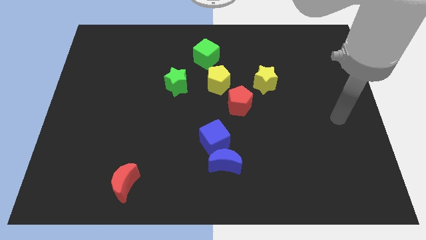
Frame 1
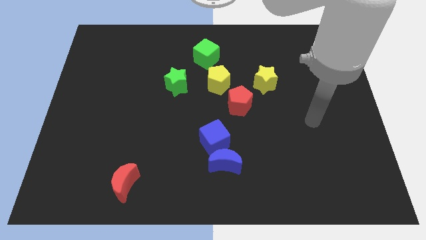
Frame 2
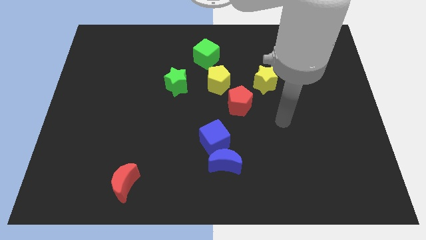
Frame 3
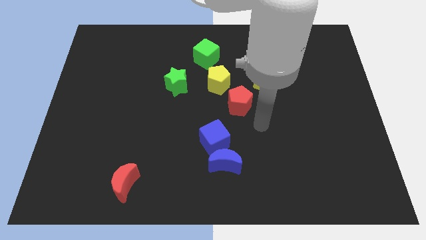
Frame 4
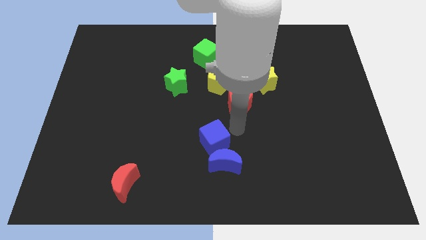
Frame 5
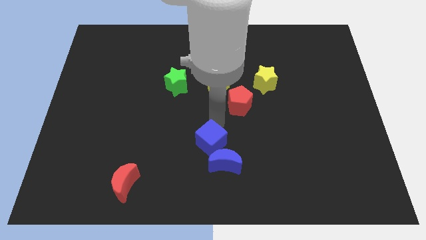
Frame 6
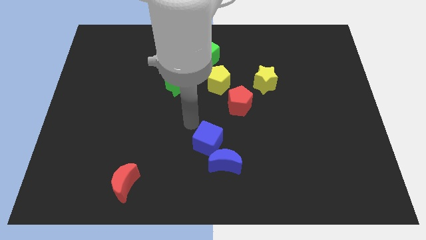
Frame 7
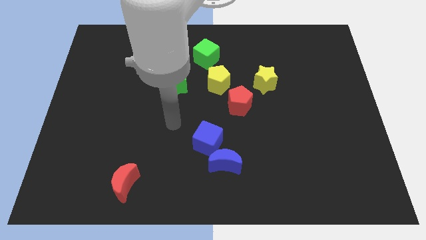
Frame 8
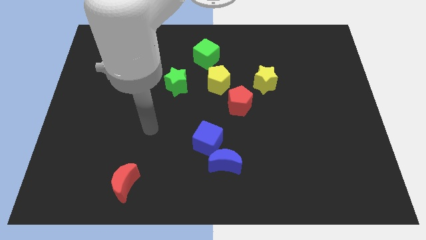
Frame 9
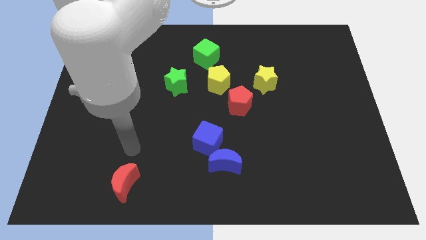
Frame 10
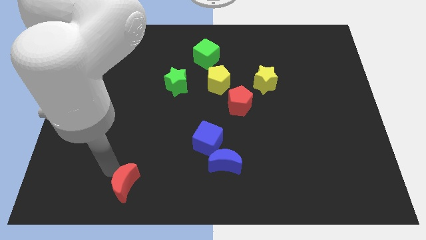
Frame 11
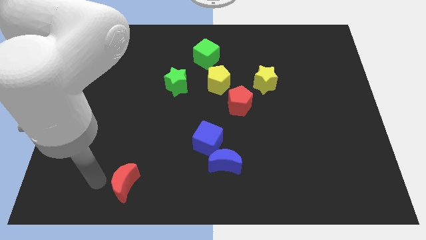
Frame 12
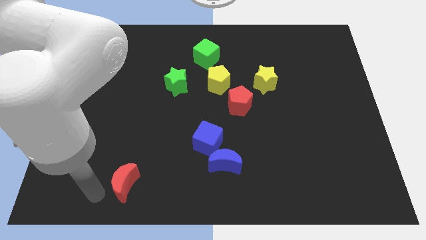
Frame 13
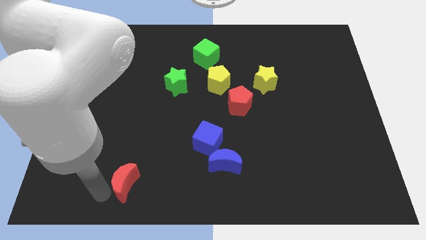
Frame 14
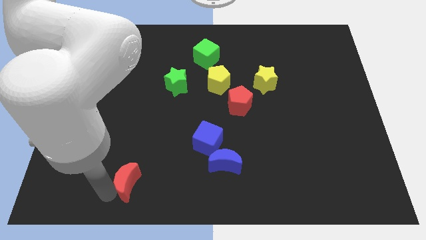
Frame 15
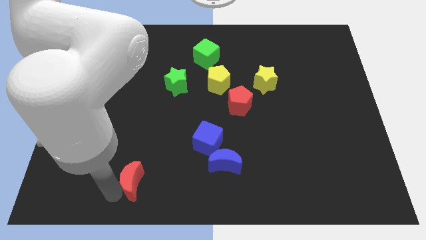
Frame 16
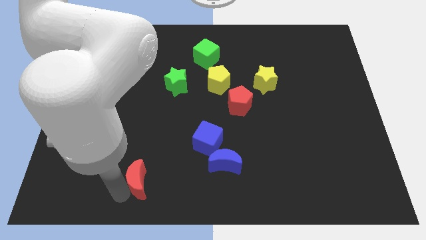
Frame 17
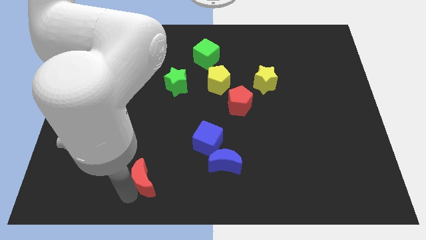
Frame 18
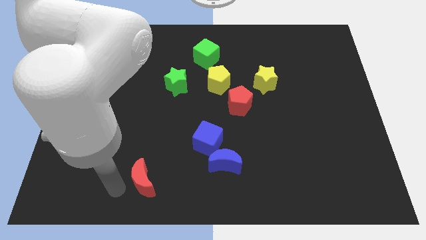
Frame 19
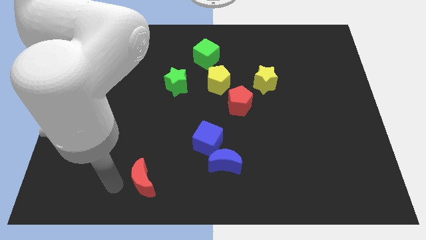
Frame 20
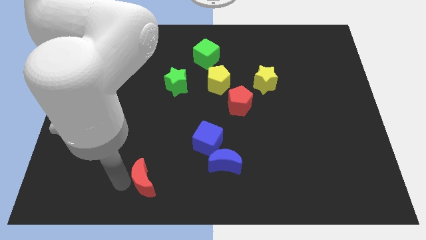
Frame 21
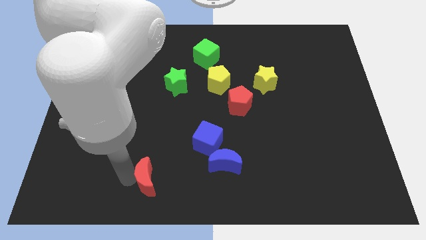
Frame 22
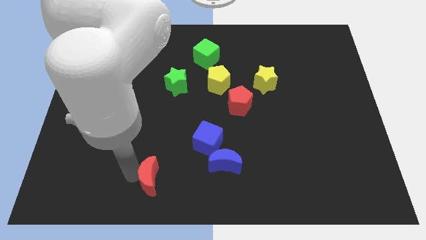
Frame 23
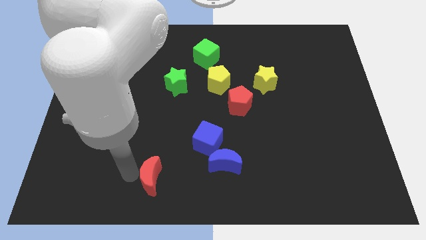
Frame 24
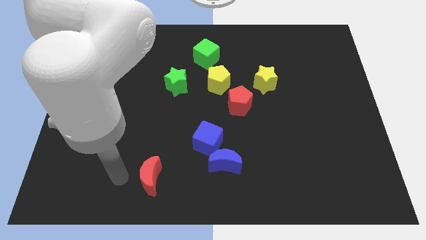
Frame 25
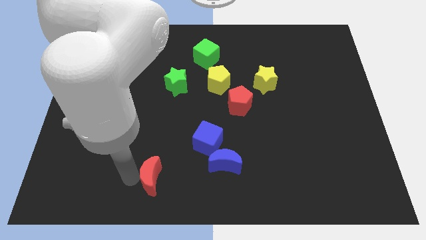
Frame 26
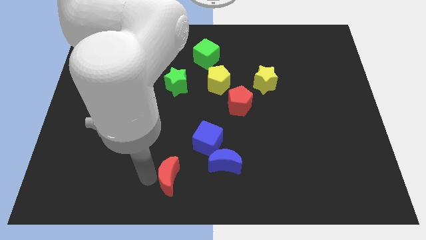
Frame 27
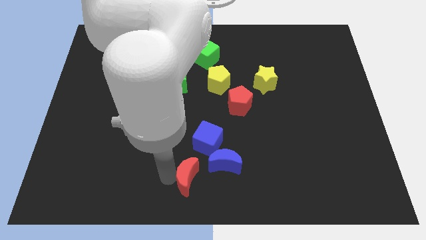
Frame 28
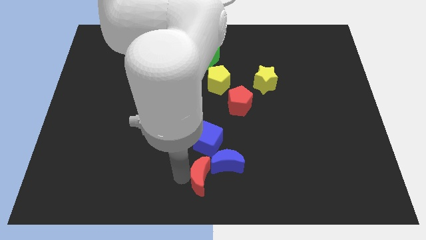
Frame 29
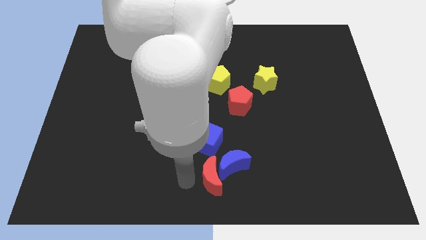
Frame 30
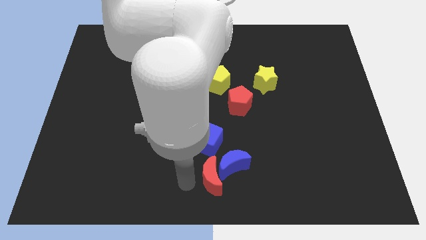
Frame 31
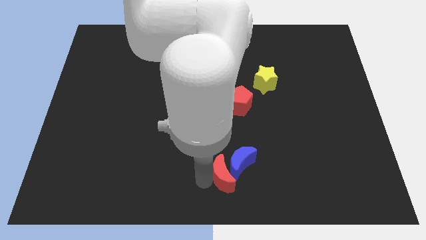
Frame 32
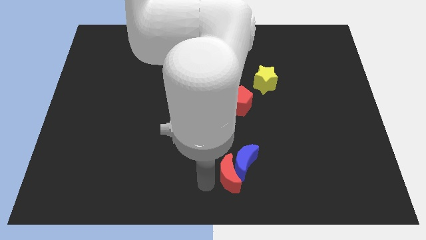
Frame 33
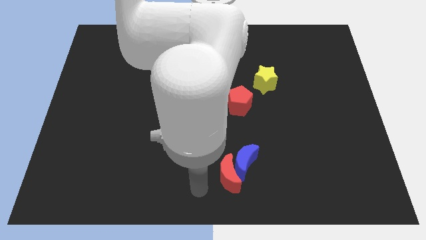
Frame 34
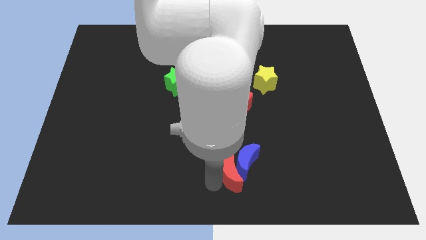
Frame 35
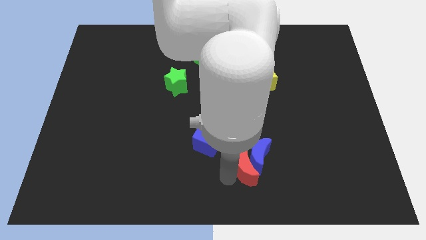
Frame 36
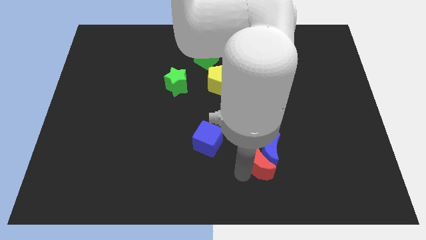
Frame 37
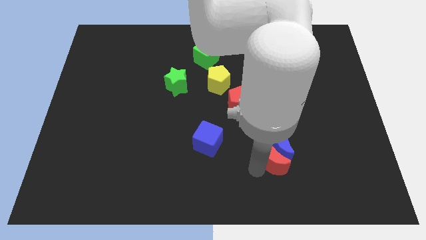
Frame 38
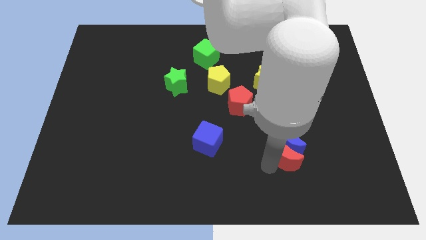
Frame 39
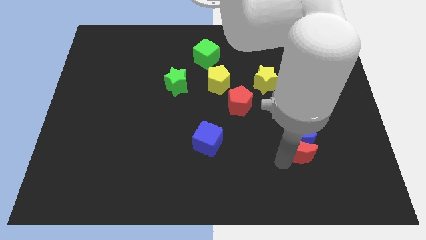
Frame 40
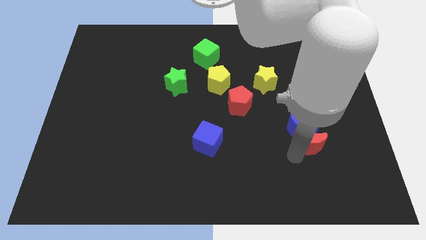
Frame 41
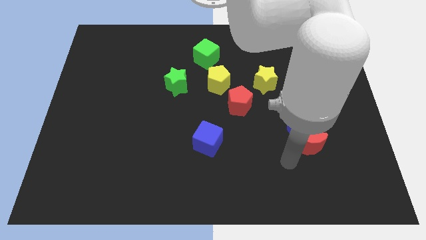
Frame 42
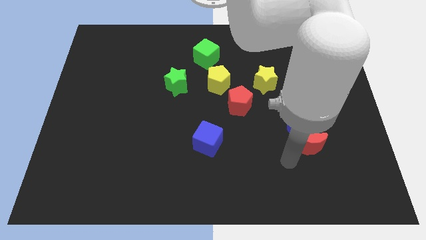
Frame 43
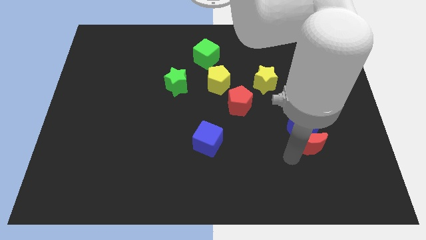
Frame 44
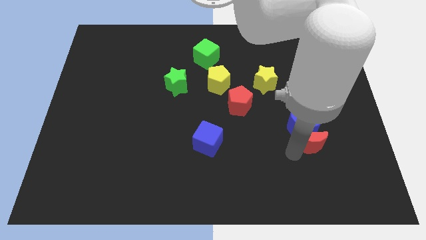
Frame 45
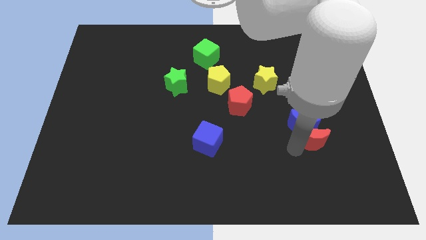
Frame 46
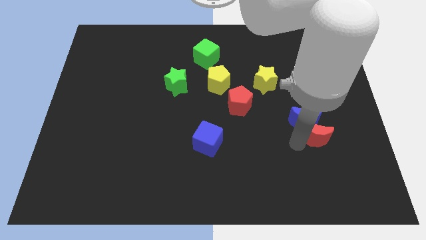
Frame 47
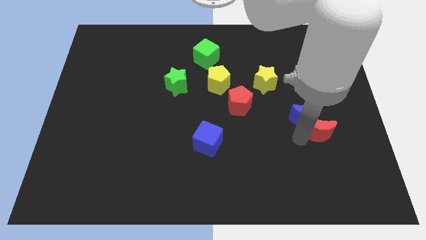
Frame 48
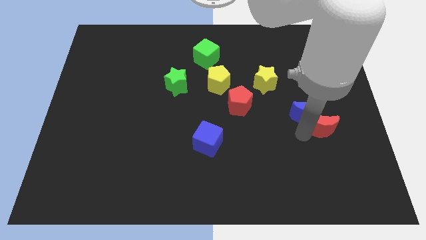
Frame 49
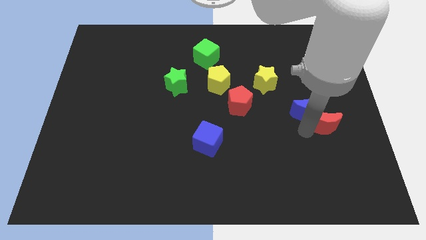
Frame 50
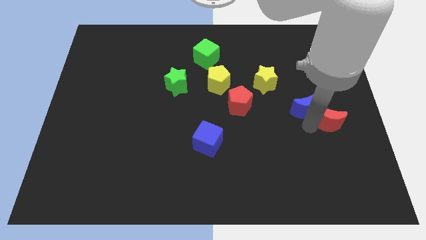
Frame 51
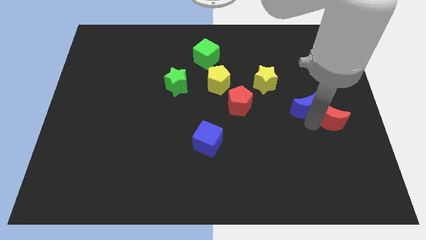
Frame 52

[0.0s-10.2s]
move the red moon to the center right

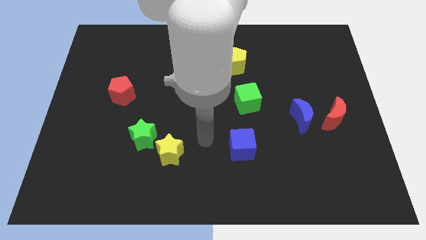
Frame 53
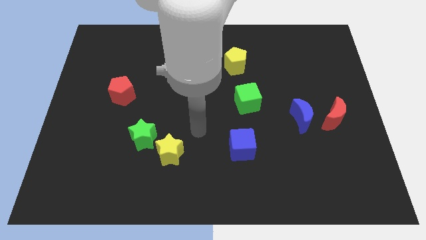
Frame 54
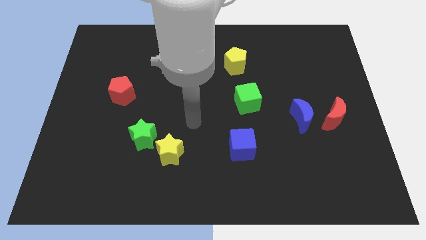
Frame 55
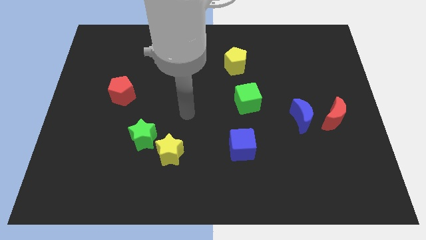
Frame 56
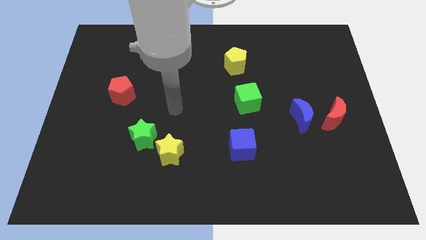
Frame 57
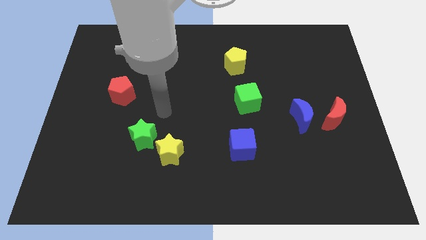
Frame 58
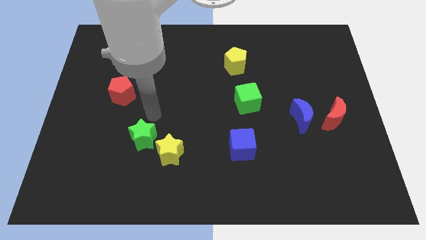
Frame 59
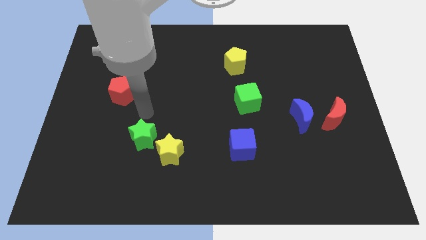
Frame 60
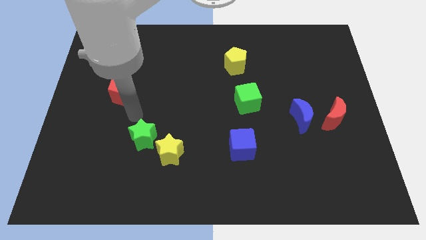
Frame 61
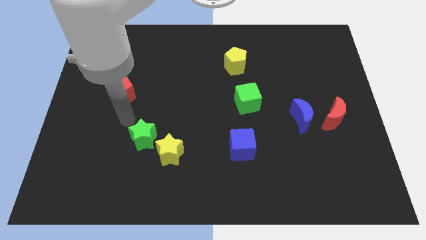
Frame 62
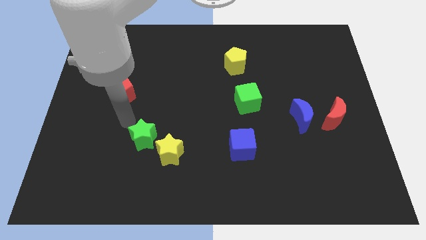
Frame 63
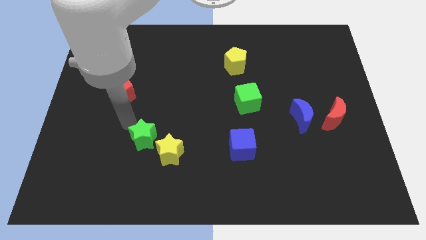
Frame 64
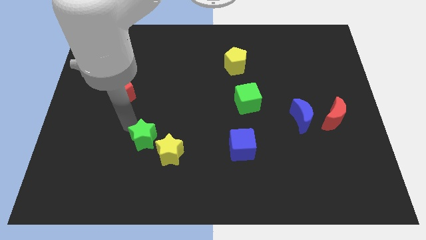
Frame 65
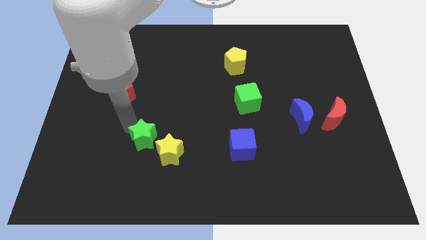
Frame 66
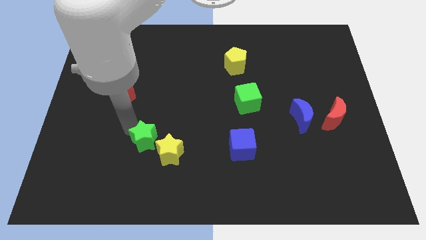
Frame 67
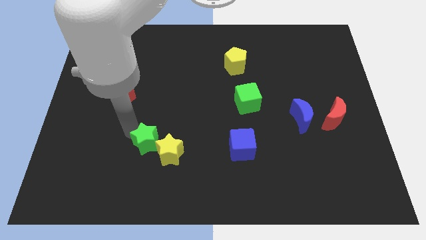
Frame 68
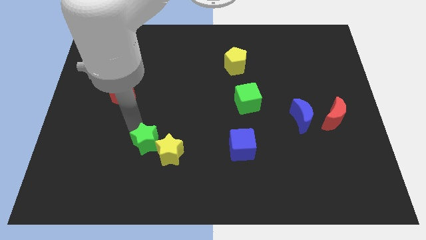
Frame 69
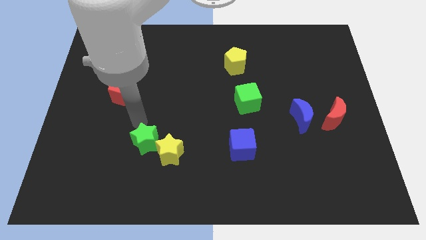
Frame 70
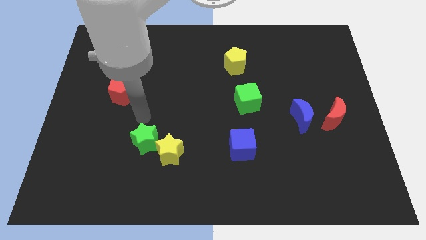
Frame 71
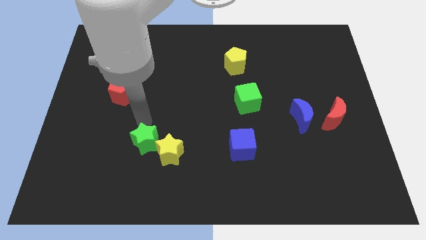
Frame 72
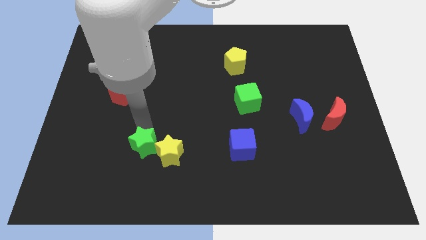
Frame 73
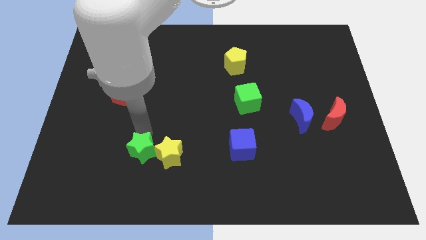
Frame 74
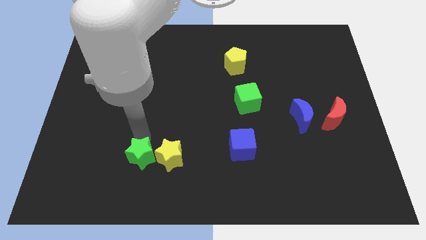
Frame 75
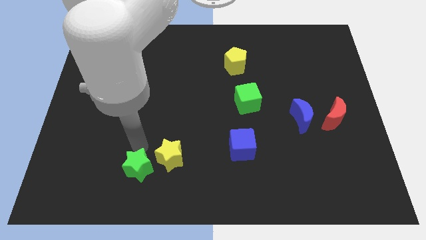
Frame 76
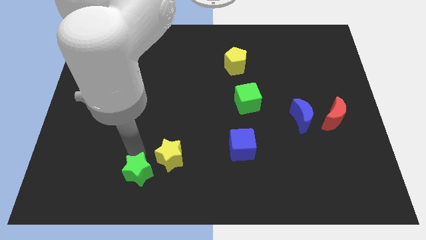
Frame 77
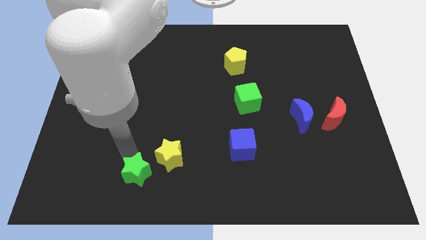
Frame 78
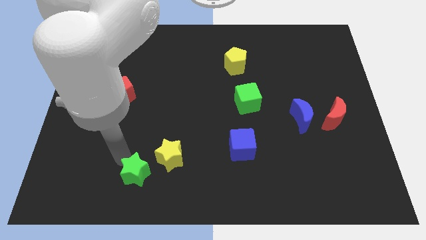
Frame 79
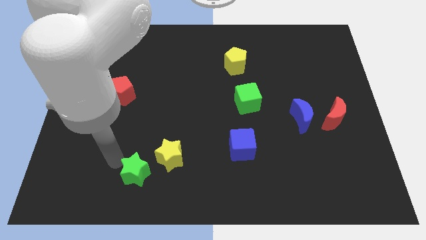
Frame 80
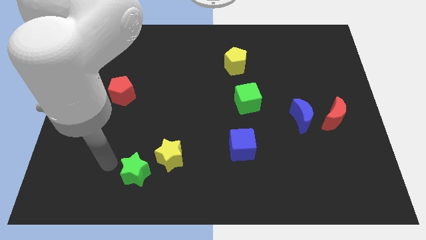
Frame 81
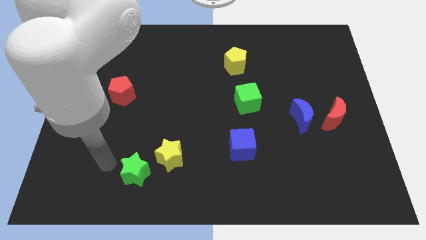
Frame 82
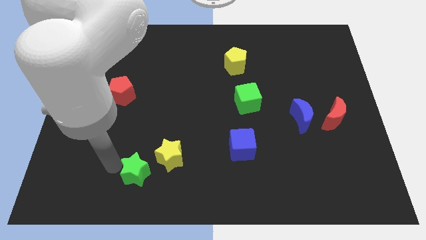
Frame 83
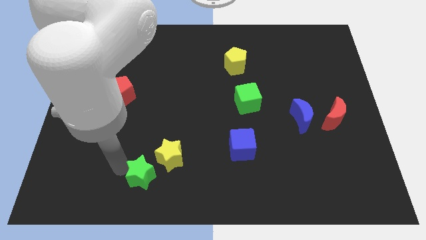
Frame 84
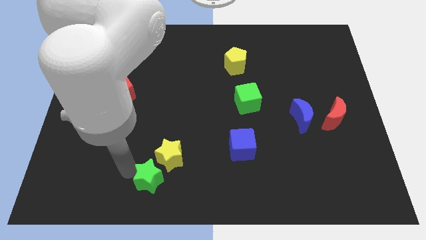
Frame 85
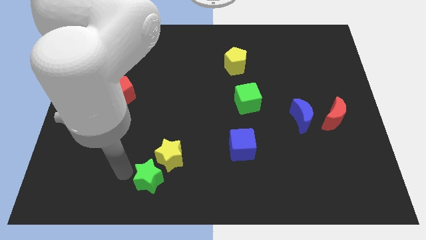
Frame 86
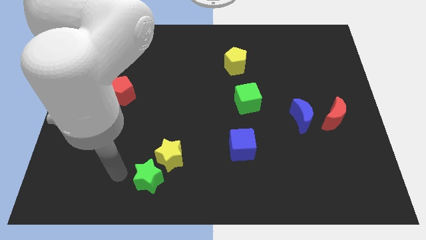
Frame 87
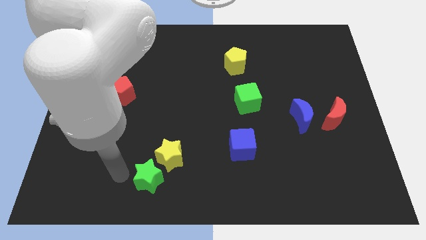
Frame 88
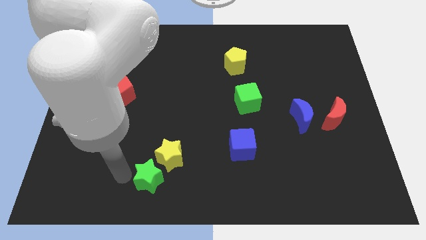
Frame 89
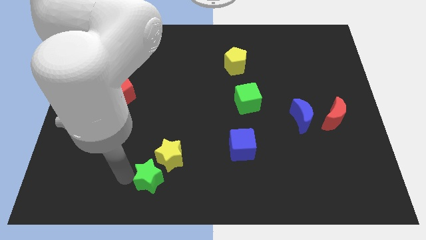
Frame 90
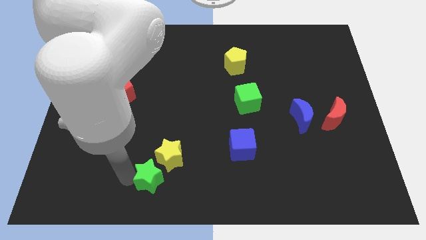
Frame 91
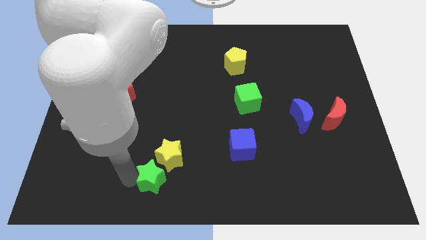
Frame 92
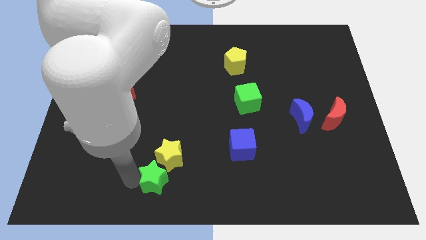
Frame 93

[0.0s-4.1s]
slide the green star to the bottom
